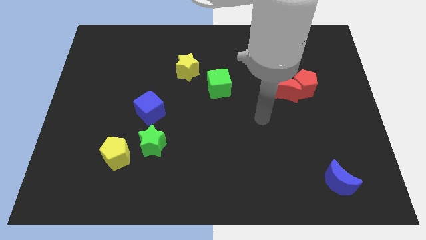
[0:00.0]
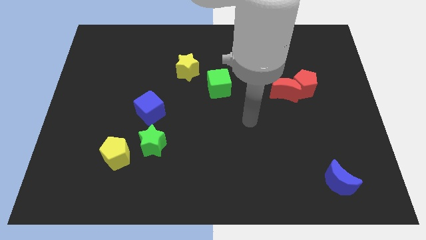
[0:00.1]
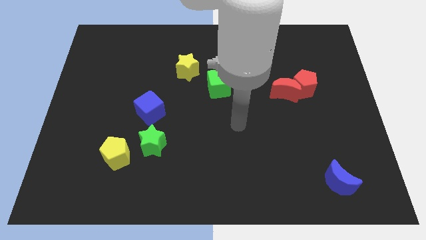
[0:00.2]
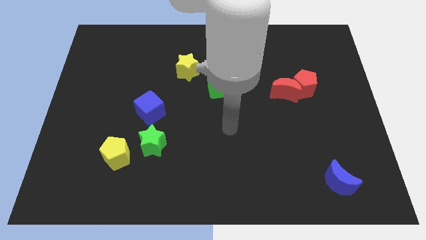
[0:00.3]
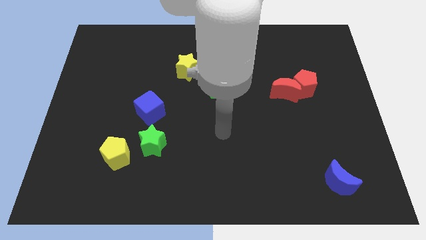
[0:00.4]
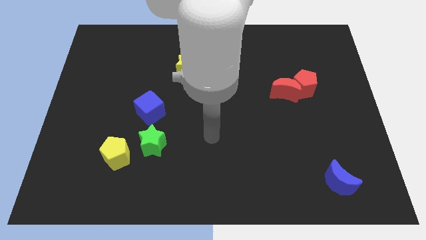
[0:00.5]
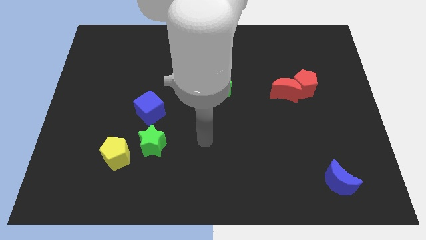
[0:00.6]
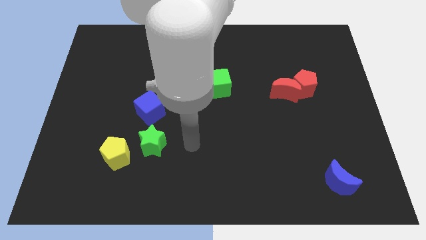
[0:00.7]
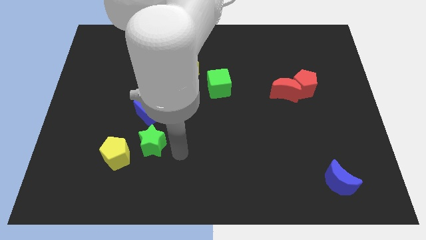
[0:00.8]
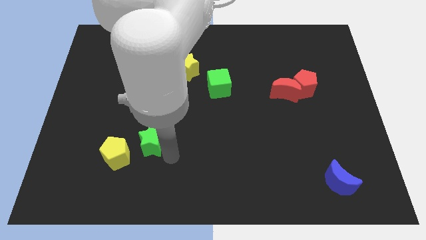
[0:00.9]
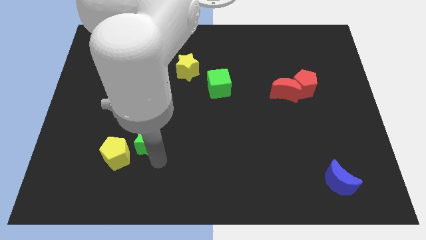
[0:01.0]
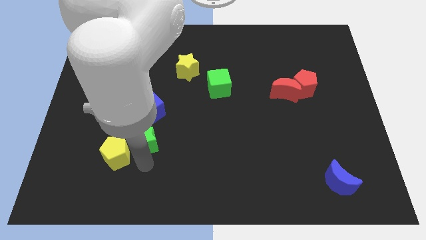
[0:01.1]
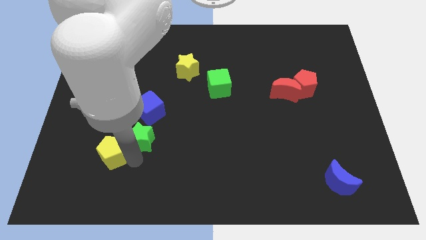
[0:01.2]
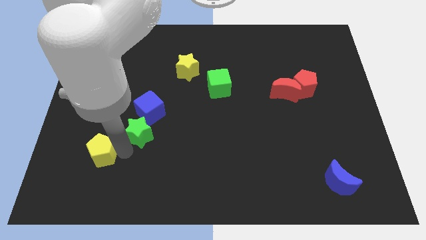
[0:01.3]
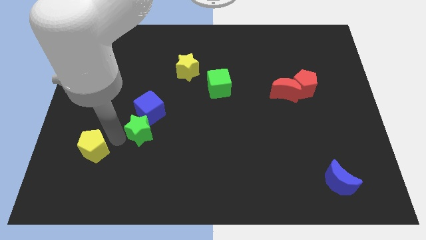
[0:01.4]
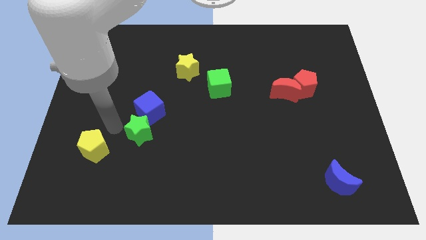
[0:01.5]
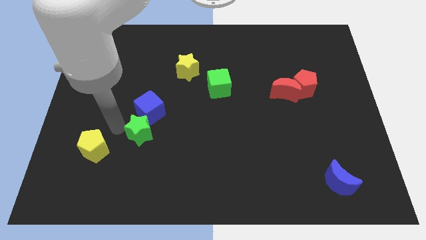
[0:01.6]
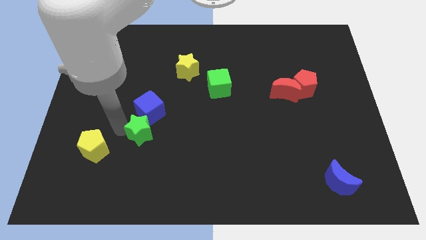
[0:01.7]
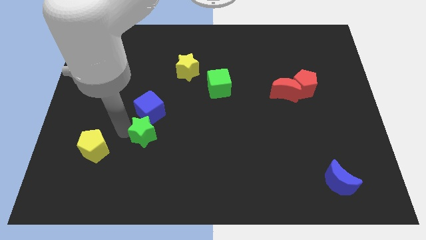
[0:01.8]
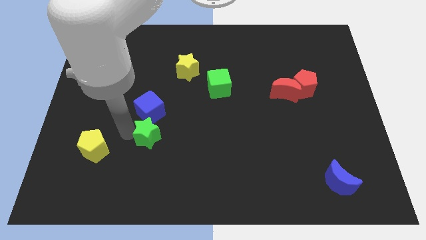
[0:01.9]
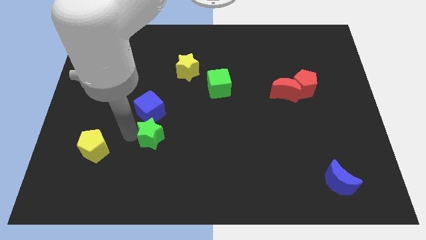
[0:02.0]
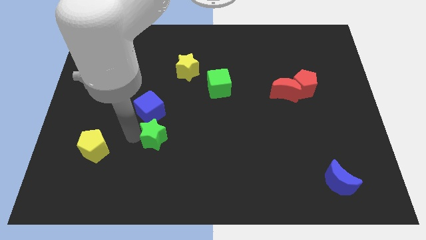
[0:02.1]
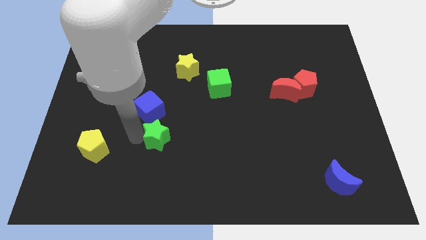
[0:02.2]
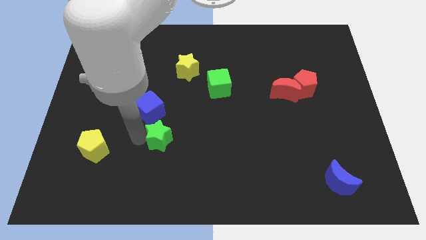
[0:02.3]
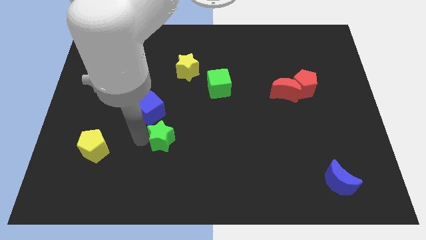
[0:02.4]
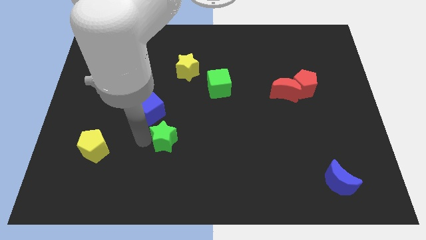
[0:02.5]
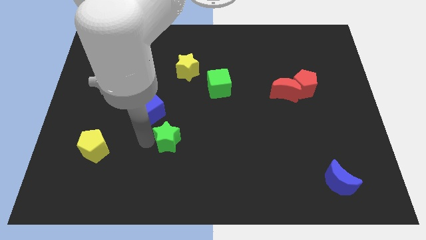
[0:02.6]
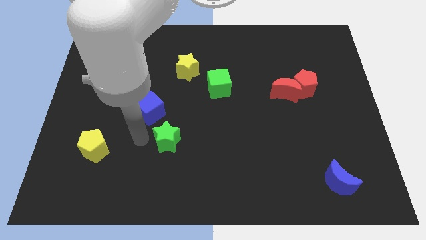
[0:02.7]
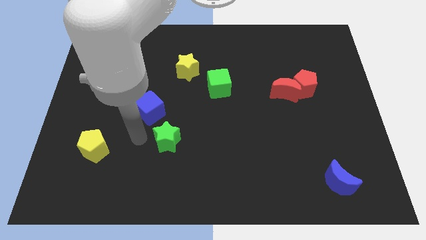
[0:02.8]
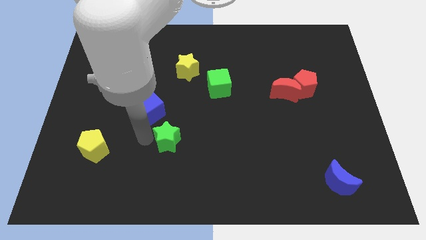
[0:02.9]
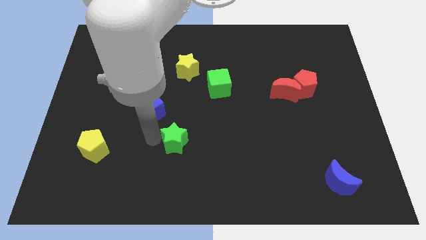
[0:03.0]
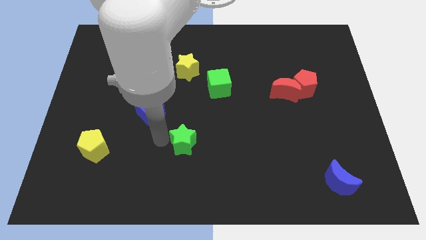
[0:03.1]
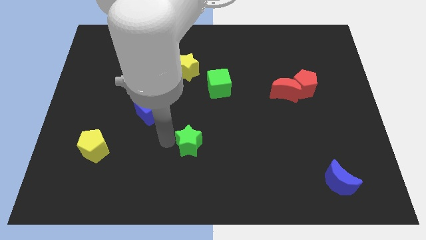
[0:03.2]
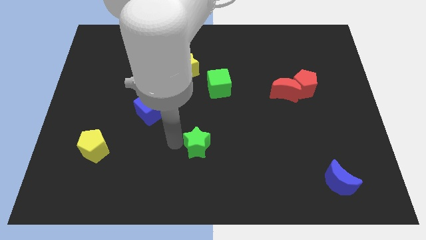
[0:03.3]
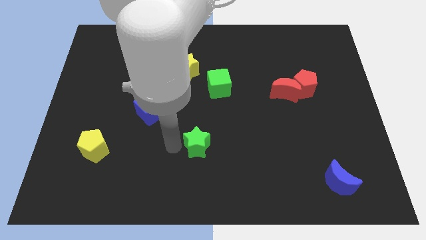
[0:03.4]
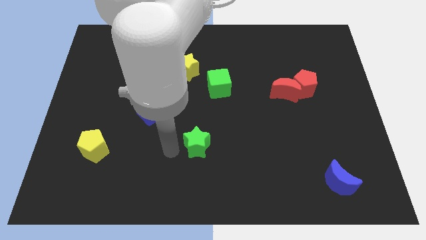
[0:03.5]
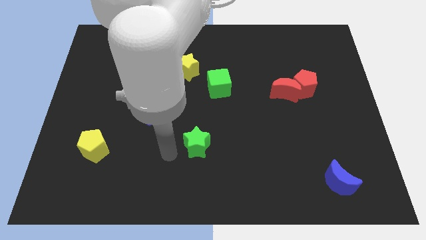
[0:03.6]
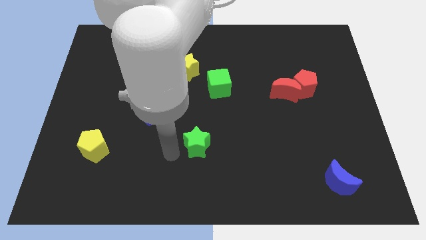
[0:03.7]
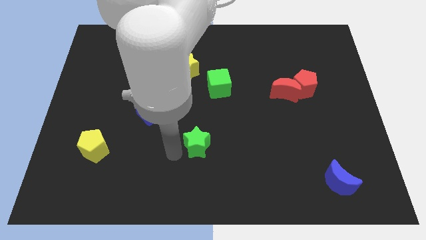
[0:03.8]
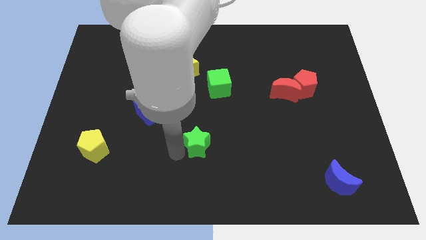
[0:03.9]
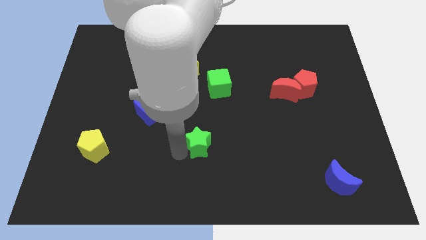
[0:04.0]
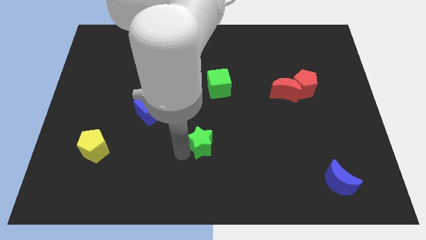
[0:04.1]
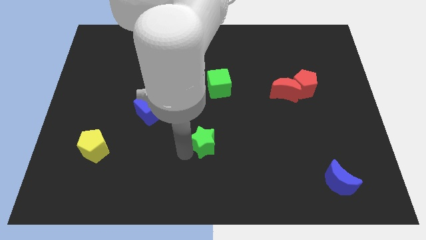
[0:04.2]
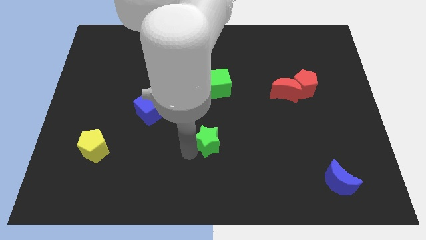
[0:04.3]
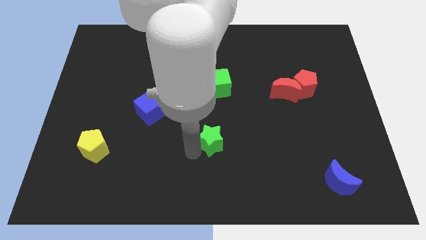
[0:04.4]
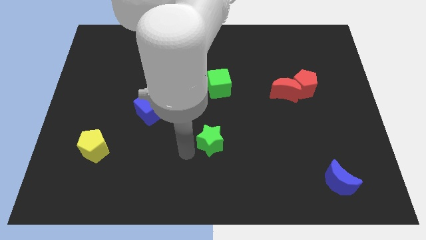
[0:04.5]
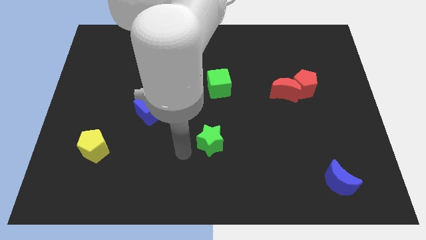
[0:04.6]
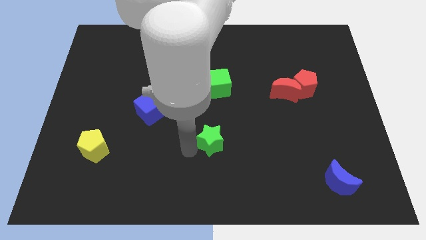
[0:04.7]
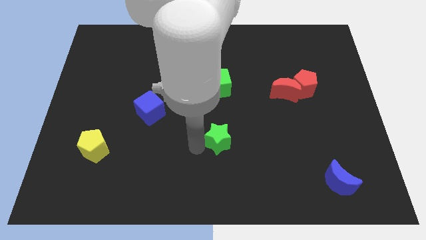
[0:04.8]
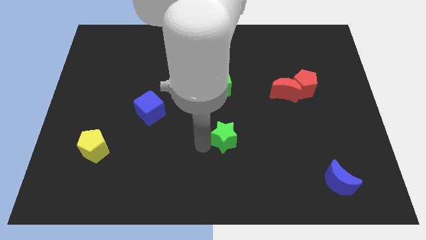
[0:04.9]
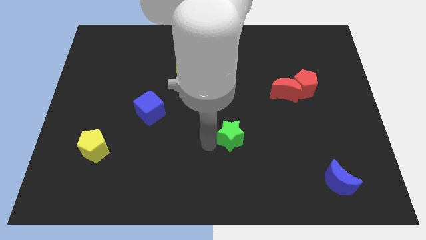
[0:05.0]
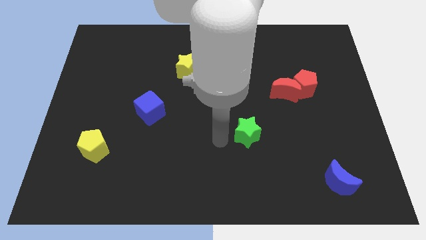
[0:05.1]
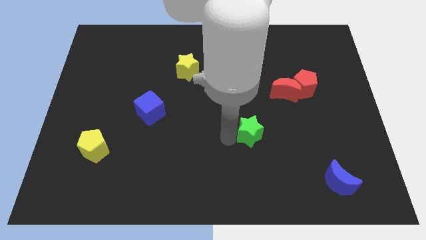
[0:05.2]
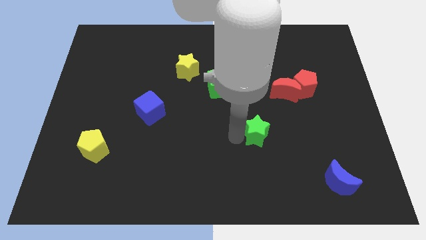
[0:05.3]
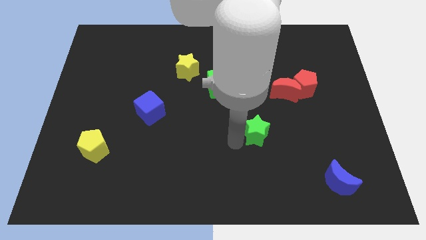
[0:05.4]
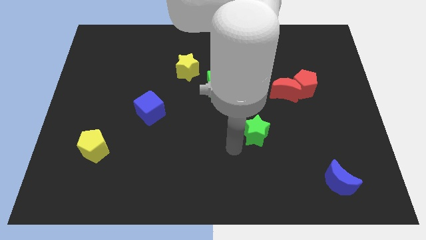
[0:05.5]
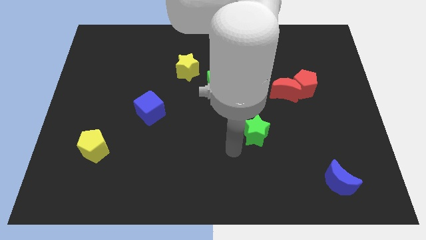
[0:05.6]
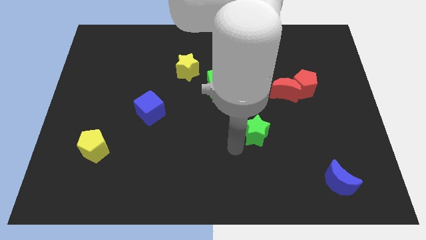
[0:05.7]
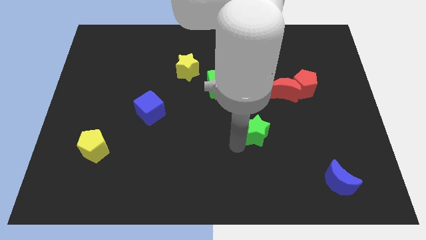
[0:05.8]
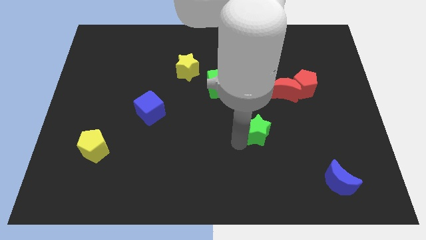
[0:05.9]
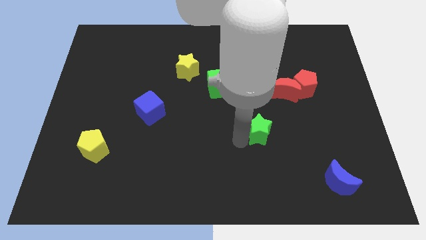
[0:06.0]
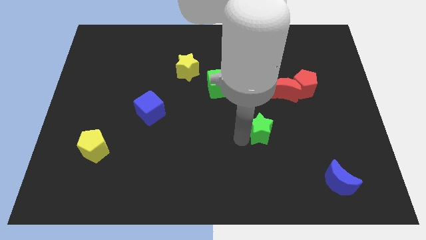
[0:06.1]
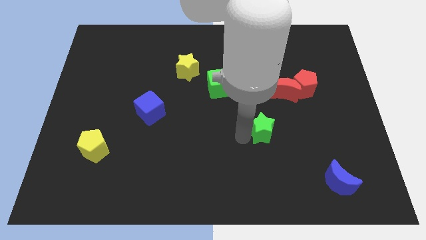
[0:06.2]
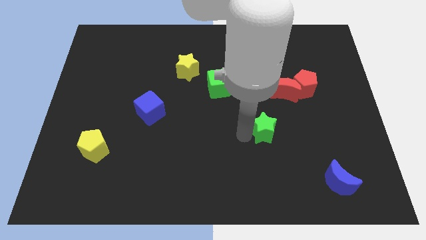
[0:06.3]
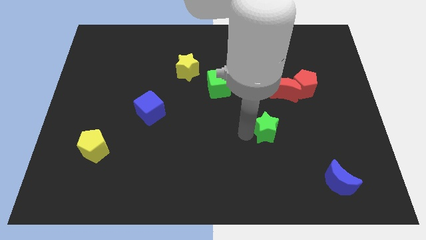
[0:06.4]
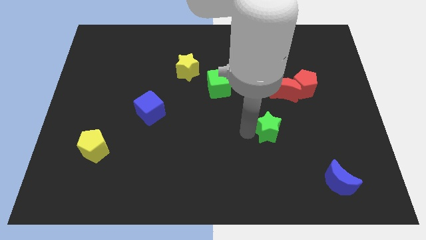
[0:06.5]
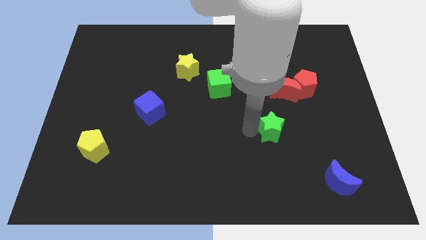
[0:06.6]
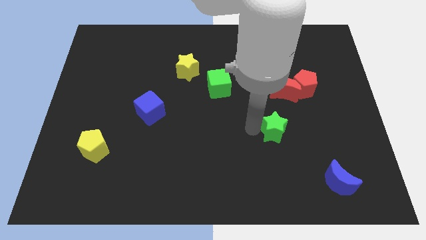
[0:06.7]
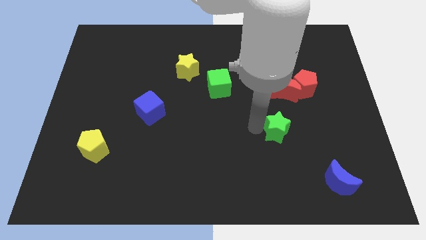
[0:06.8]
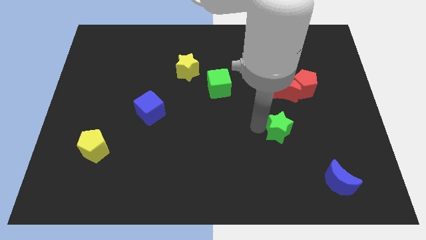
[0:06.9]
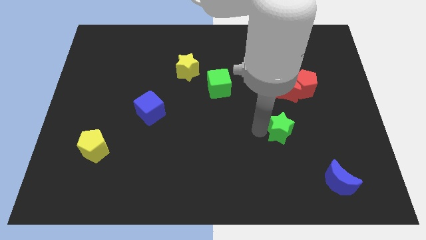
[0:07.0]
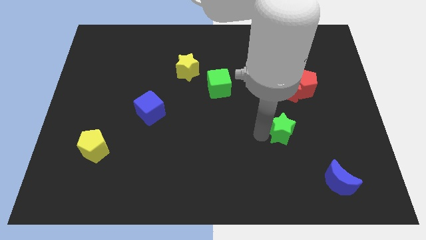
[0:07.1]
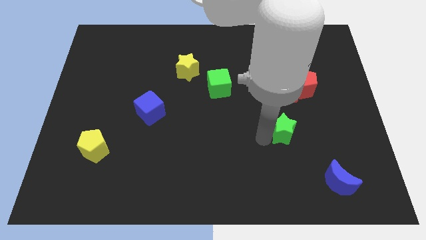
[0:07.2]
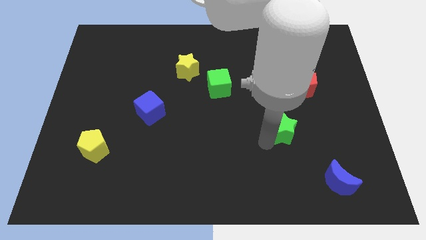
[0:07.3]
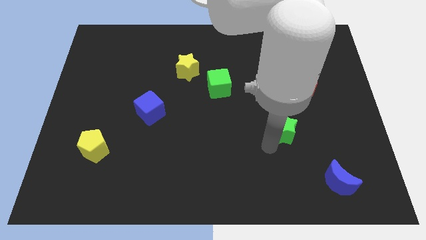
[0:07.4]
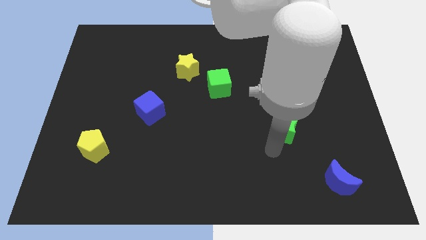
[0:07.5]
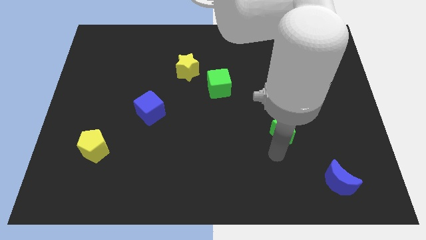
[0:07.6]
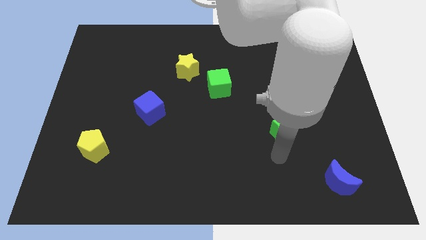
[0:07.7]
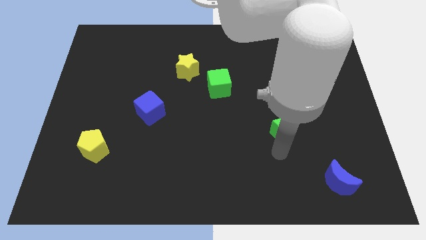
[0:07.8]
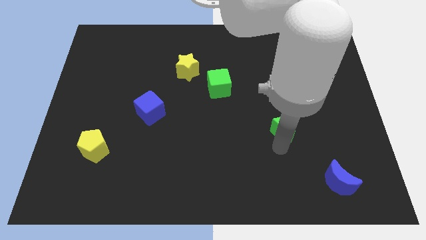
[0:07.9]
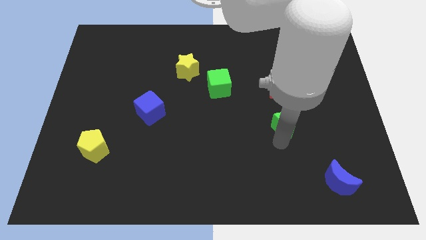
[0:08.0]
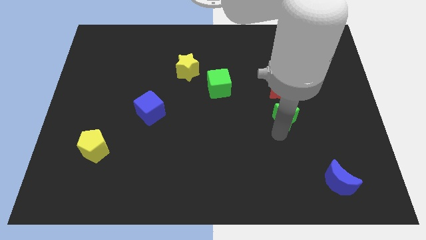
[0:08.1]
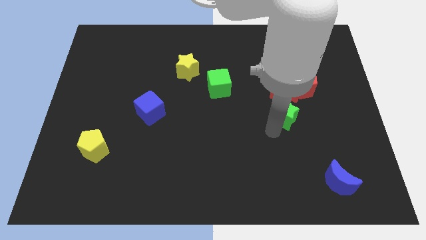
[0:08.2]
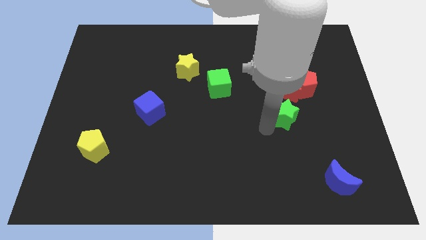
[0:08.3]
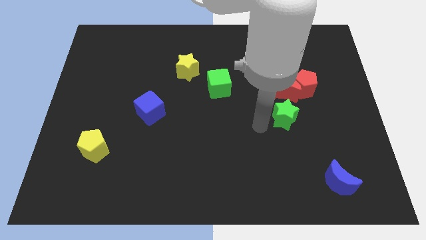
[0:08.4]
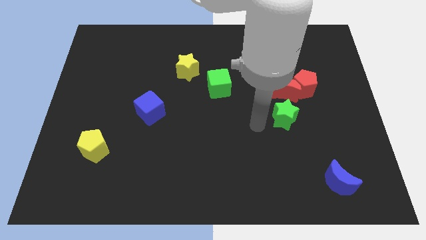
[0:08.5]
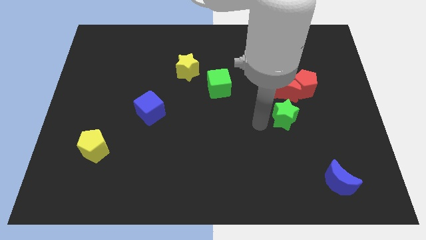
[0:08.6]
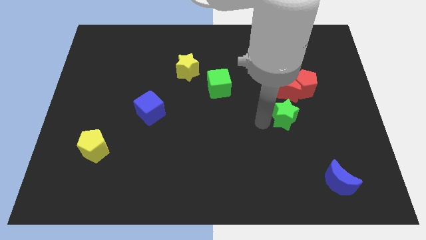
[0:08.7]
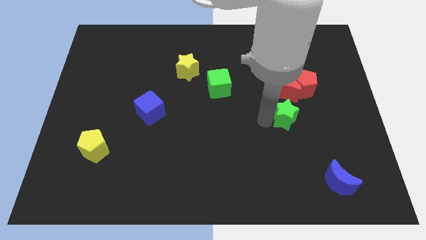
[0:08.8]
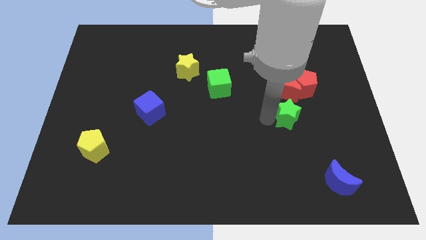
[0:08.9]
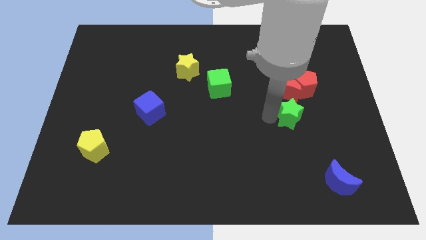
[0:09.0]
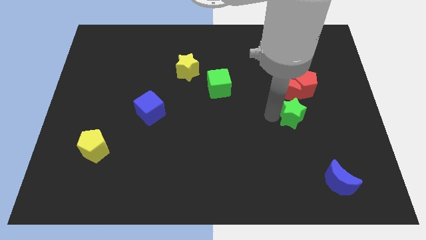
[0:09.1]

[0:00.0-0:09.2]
move the green star diagonally down and to the right of the red moon
